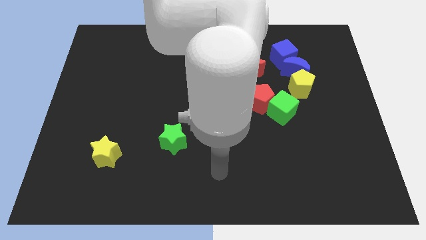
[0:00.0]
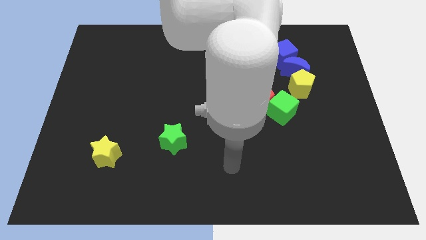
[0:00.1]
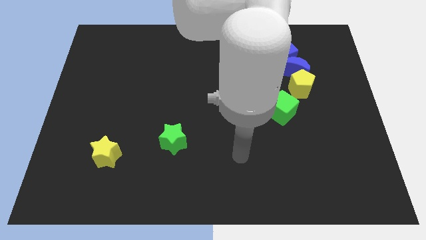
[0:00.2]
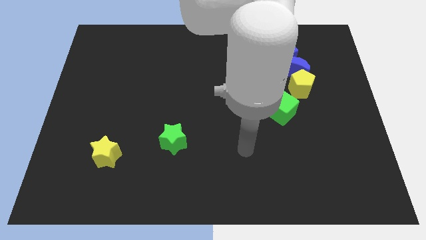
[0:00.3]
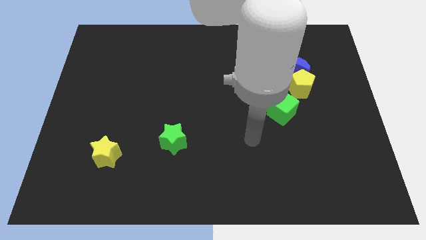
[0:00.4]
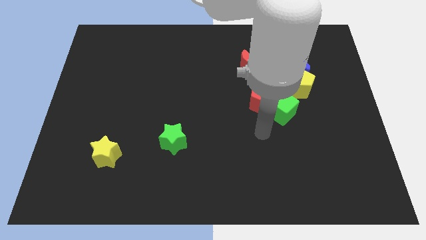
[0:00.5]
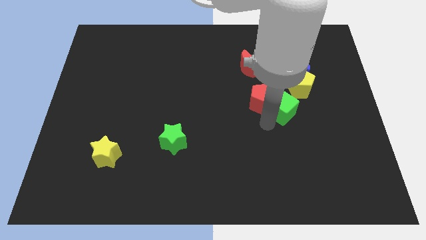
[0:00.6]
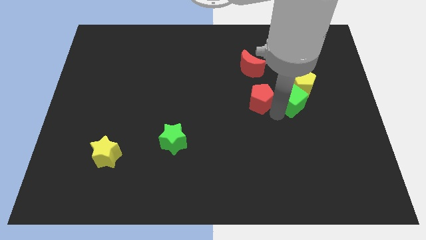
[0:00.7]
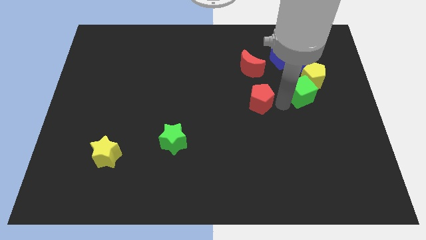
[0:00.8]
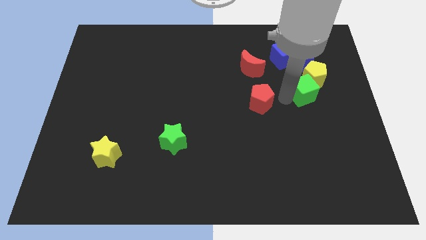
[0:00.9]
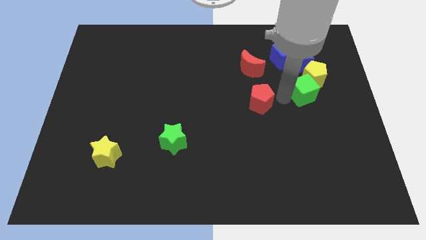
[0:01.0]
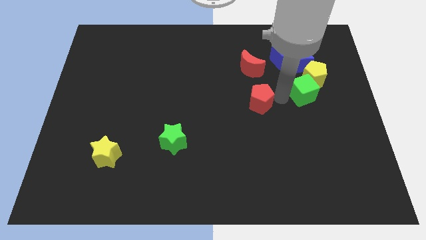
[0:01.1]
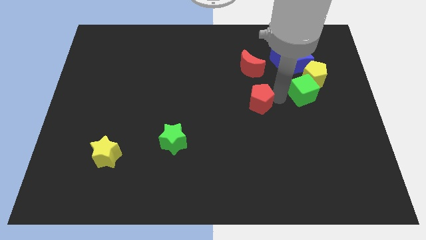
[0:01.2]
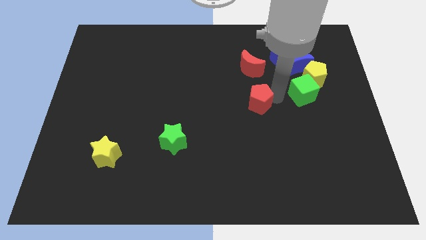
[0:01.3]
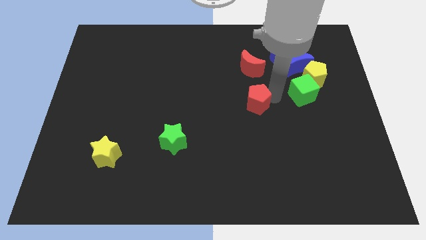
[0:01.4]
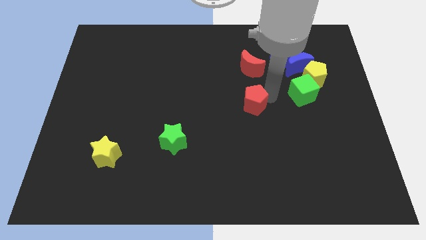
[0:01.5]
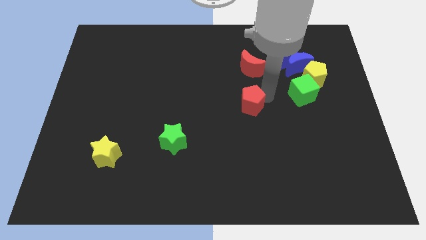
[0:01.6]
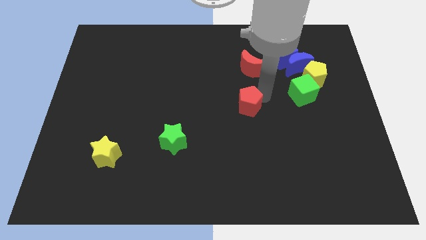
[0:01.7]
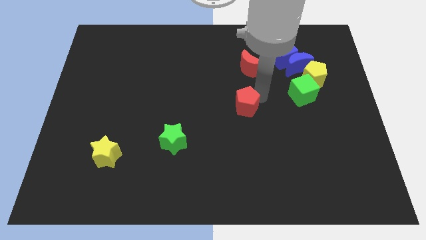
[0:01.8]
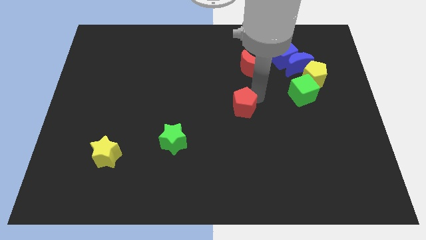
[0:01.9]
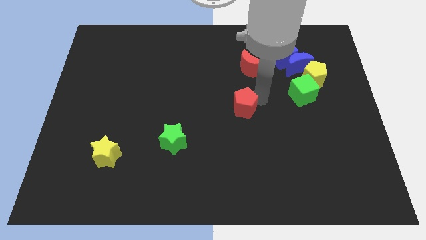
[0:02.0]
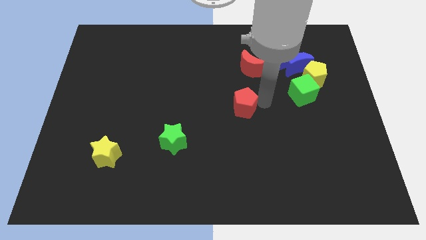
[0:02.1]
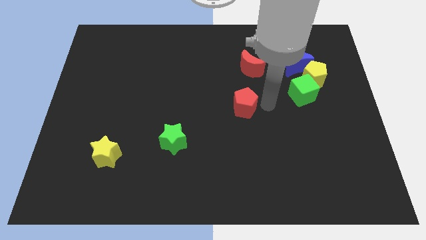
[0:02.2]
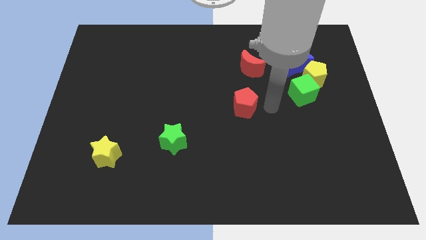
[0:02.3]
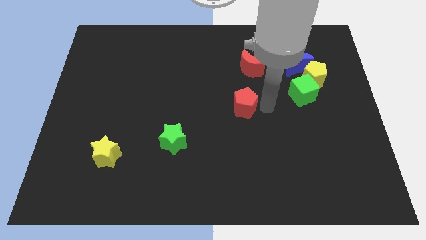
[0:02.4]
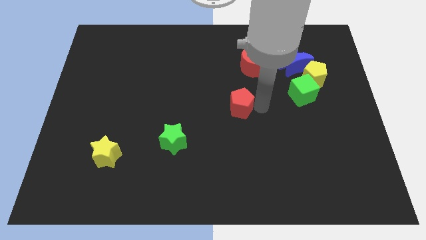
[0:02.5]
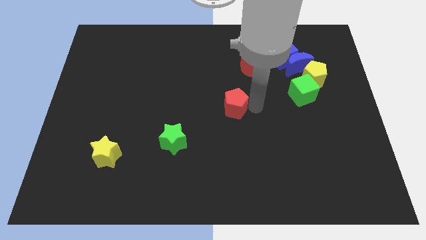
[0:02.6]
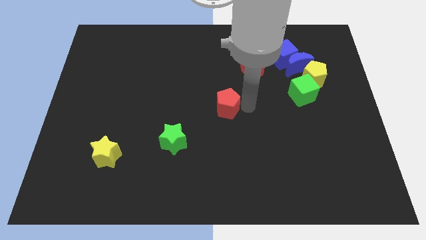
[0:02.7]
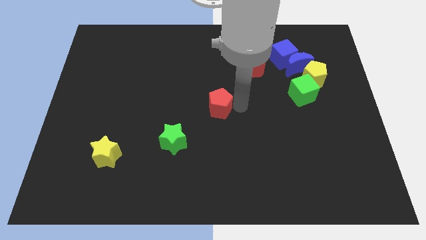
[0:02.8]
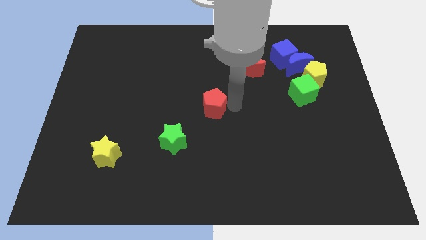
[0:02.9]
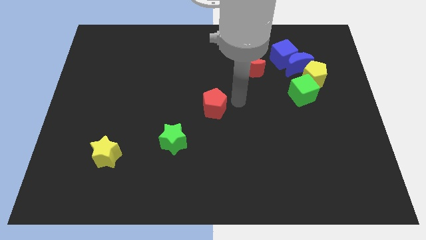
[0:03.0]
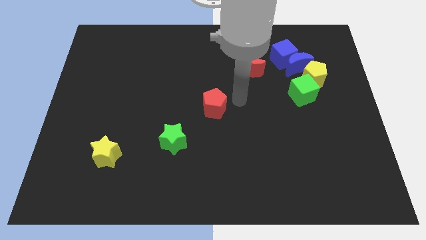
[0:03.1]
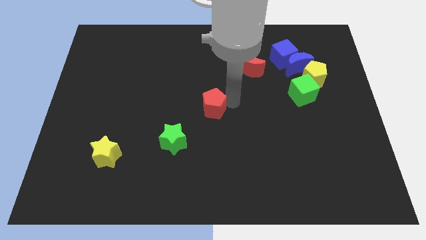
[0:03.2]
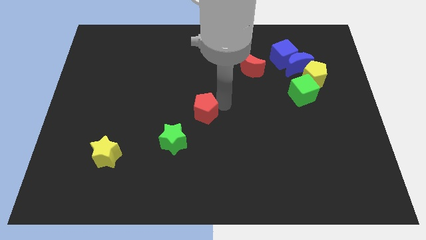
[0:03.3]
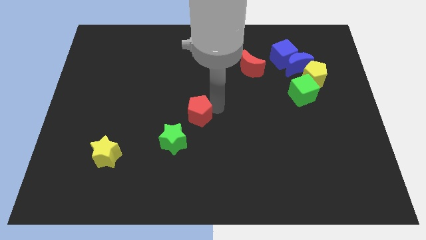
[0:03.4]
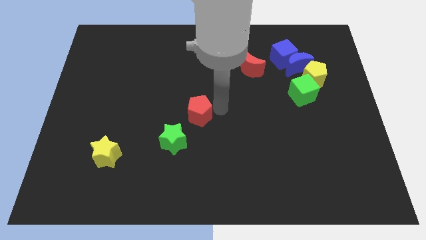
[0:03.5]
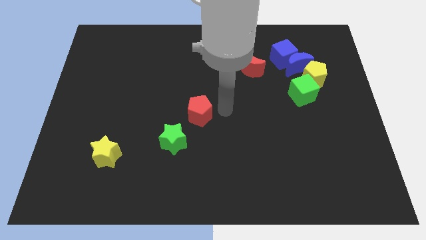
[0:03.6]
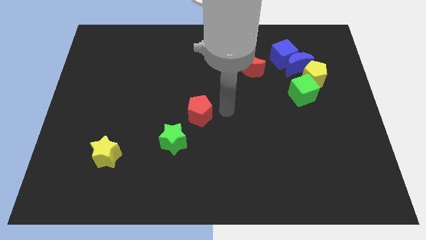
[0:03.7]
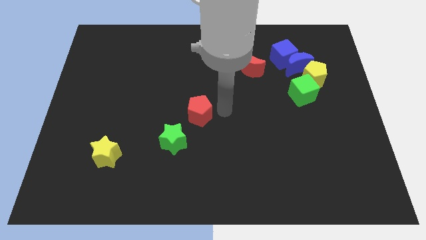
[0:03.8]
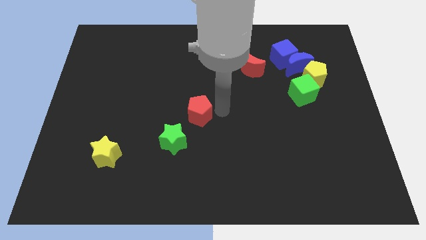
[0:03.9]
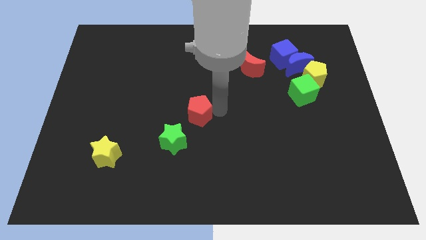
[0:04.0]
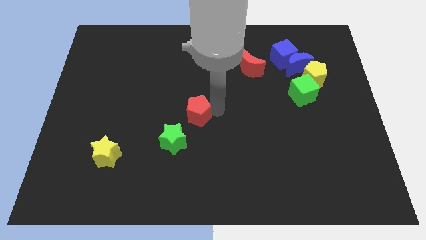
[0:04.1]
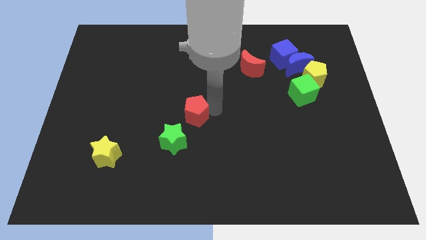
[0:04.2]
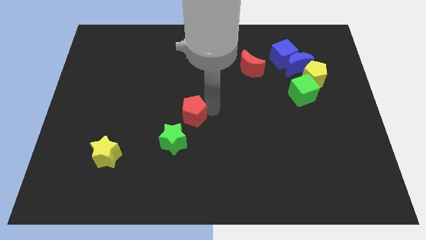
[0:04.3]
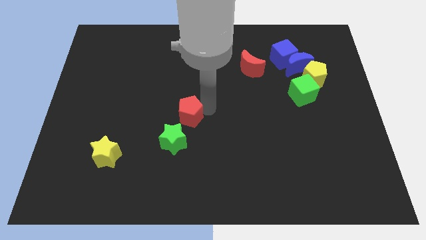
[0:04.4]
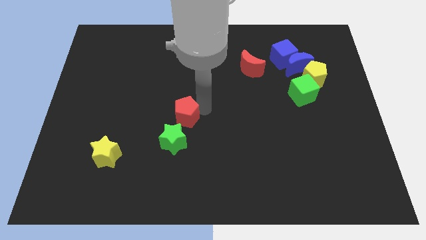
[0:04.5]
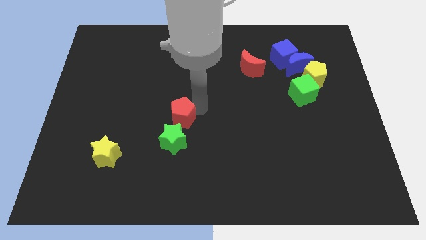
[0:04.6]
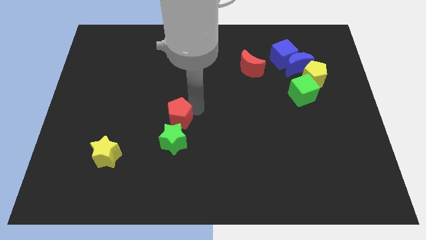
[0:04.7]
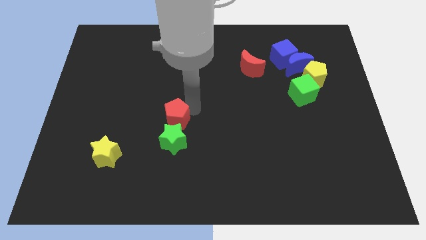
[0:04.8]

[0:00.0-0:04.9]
push the red pentagon to the top left side of the green star

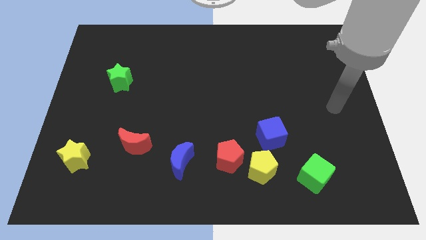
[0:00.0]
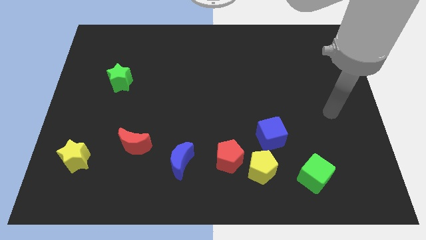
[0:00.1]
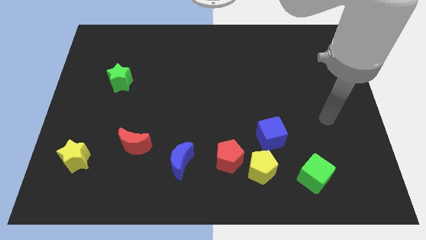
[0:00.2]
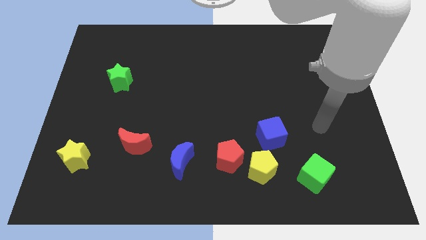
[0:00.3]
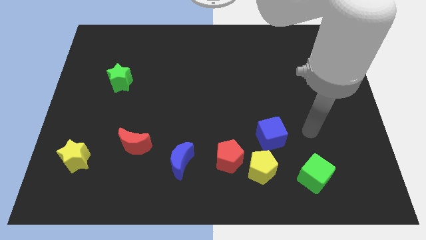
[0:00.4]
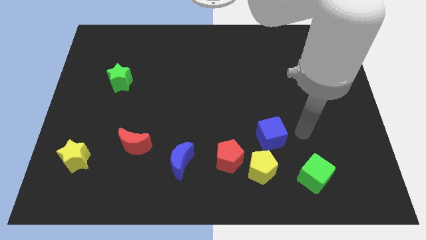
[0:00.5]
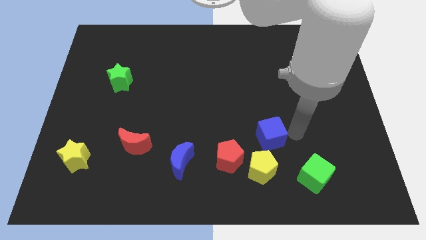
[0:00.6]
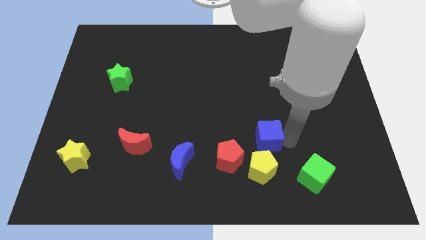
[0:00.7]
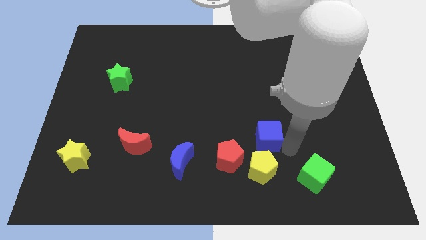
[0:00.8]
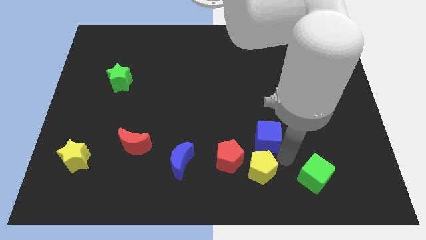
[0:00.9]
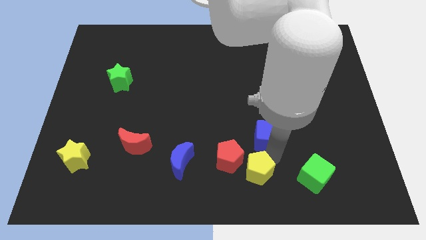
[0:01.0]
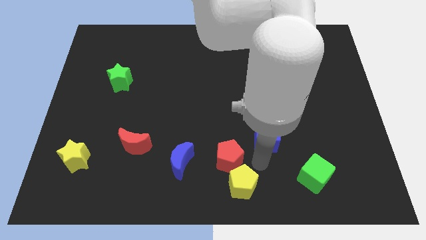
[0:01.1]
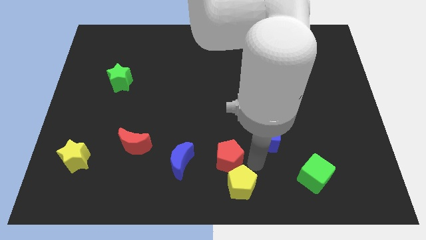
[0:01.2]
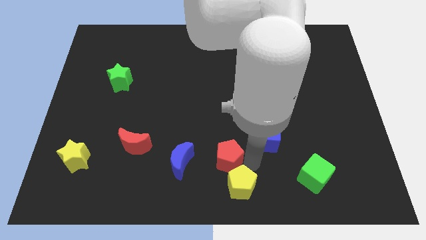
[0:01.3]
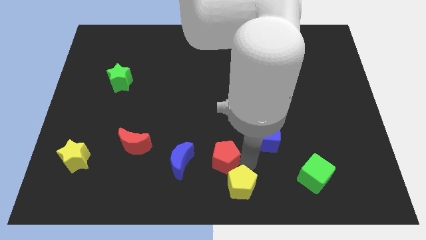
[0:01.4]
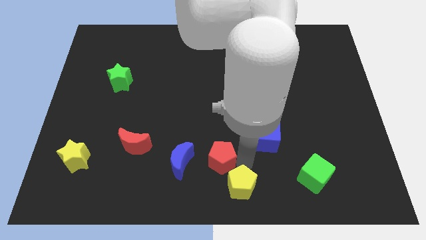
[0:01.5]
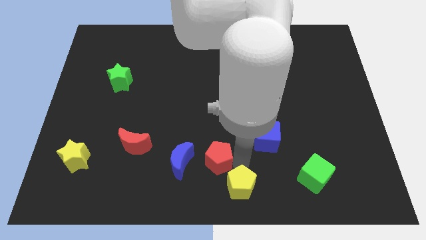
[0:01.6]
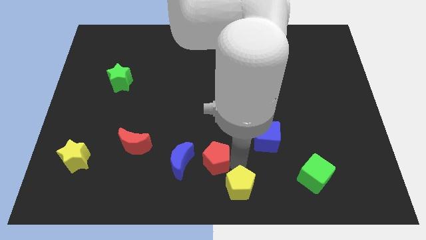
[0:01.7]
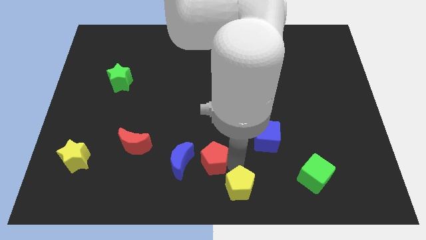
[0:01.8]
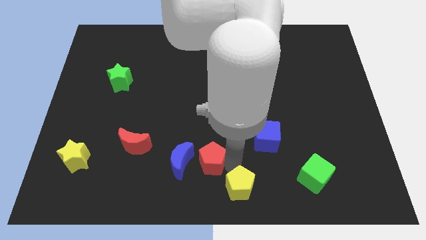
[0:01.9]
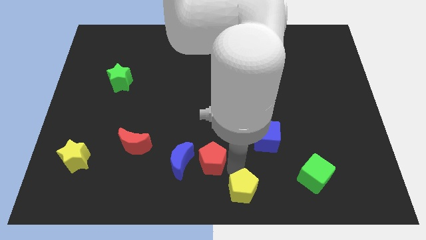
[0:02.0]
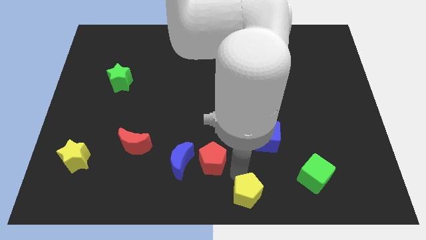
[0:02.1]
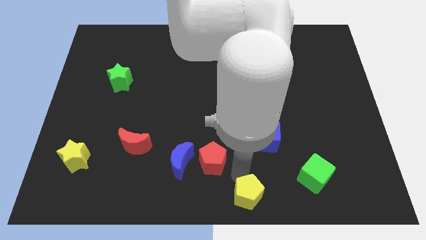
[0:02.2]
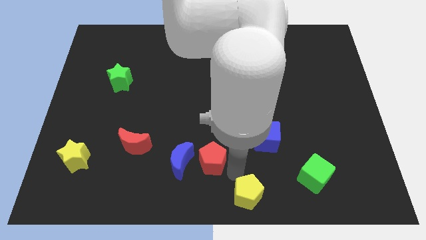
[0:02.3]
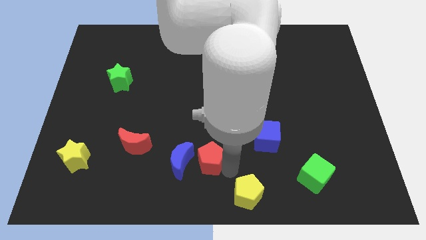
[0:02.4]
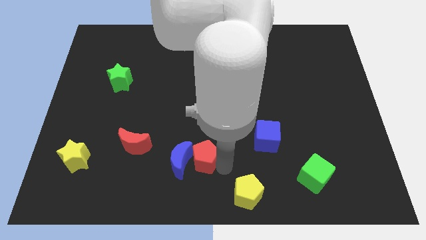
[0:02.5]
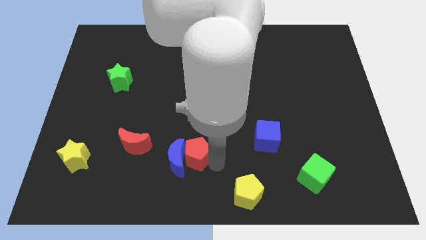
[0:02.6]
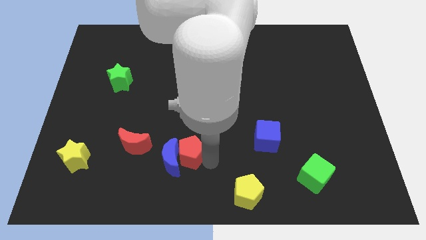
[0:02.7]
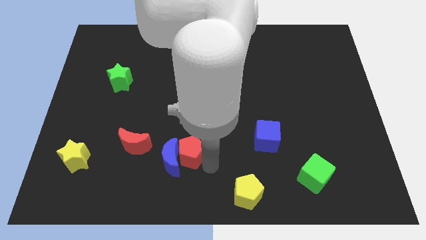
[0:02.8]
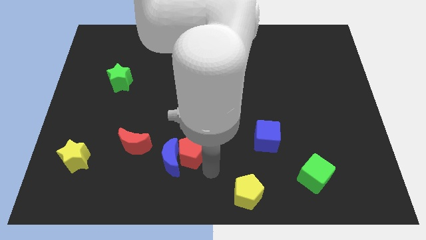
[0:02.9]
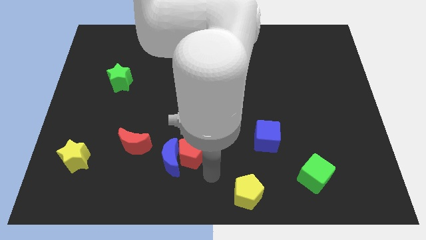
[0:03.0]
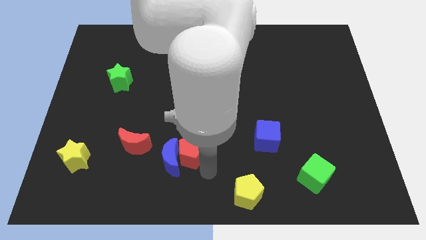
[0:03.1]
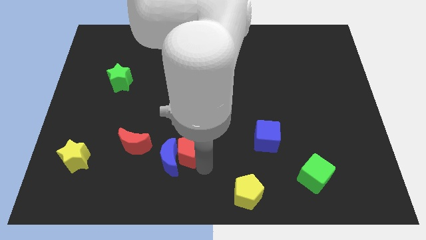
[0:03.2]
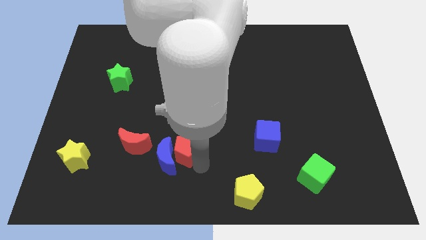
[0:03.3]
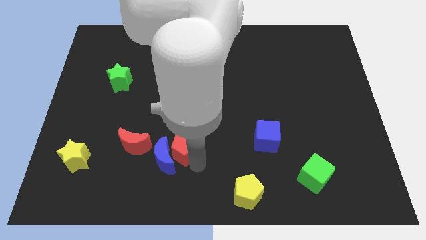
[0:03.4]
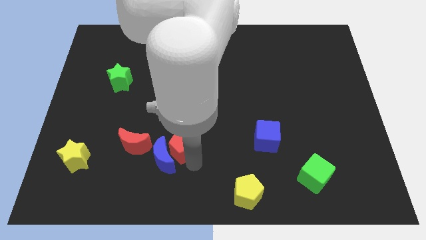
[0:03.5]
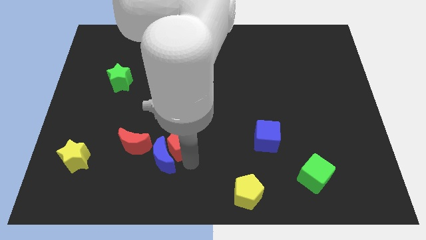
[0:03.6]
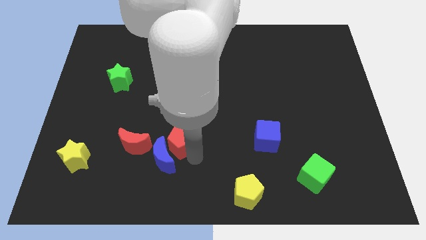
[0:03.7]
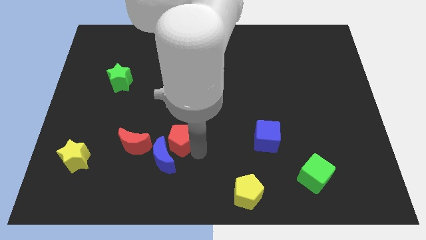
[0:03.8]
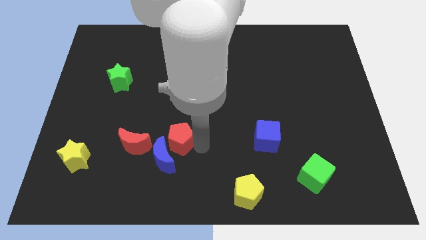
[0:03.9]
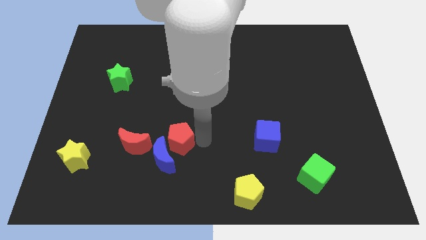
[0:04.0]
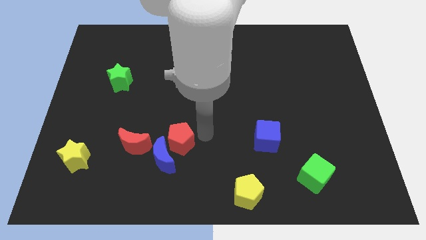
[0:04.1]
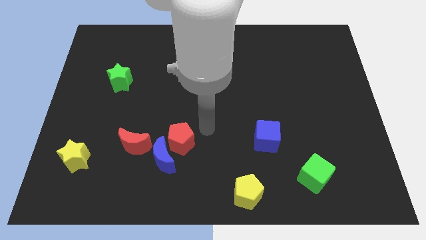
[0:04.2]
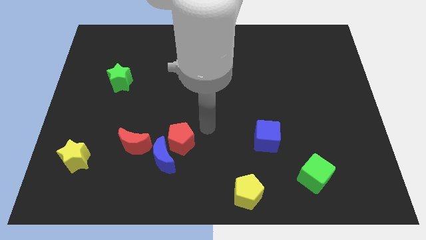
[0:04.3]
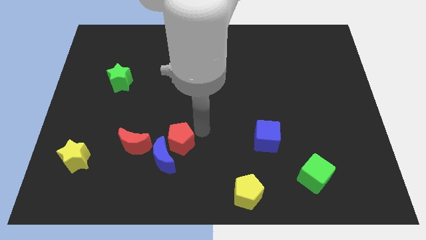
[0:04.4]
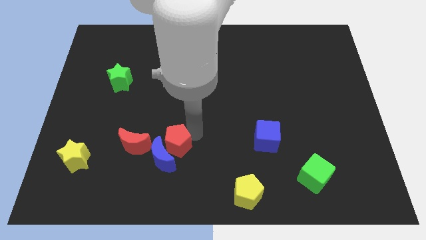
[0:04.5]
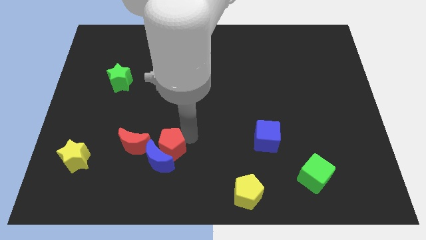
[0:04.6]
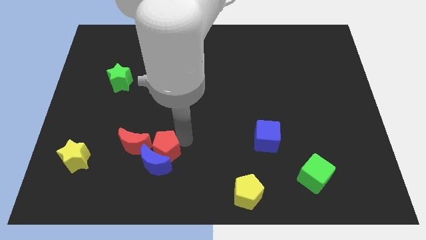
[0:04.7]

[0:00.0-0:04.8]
put the red pentagon to the bottom right side of the red moon
